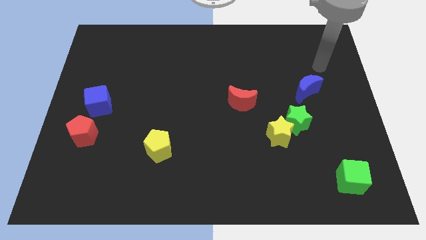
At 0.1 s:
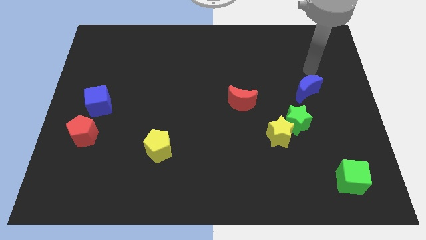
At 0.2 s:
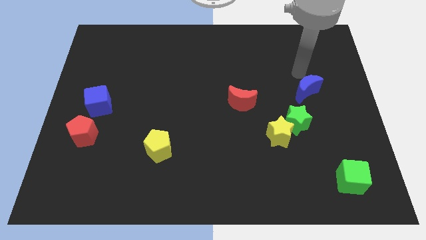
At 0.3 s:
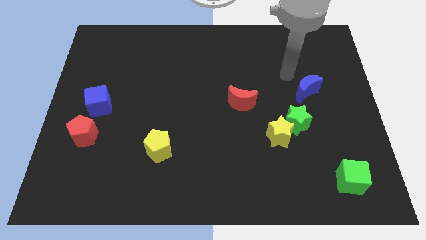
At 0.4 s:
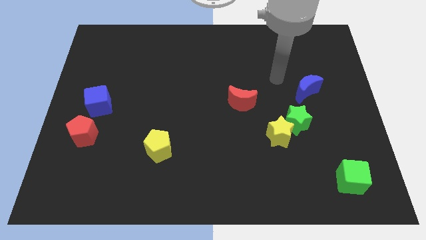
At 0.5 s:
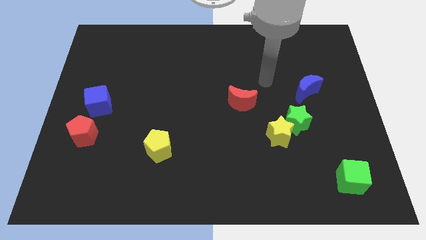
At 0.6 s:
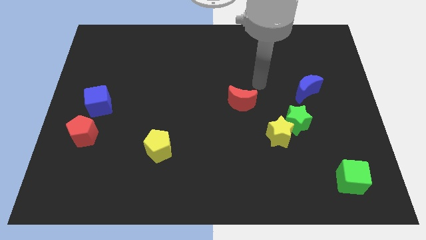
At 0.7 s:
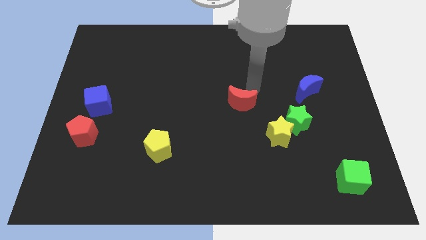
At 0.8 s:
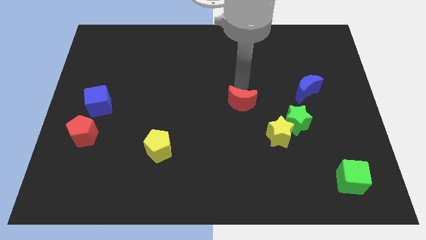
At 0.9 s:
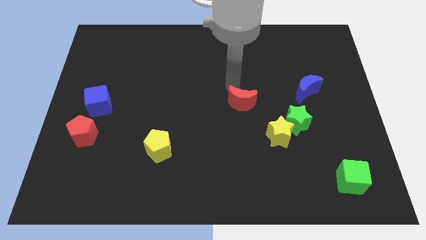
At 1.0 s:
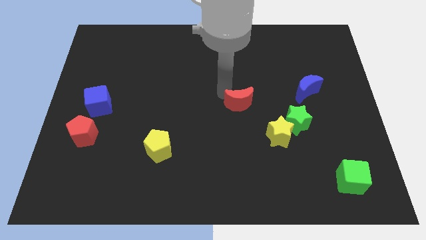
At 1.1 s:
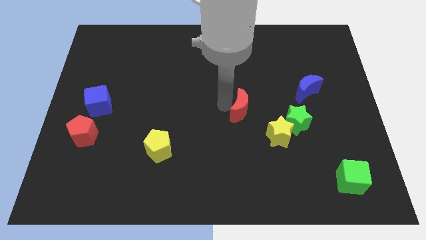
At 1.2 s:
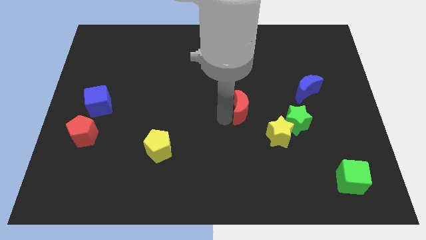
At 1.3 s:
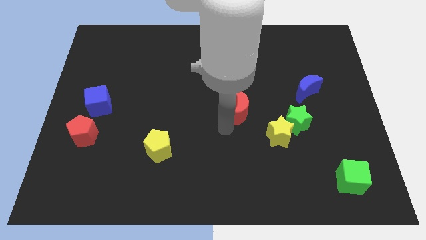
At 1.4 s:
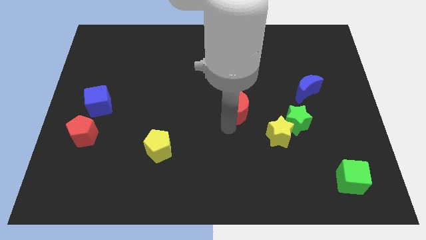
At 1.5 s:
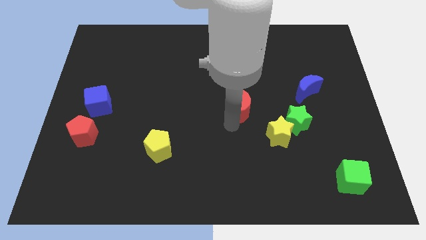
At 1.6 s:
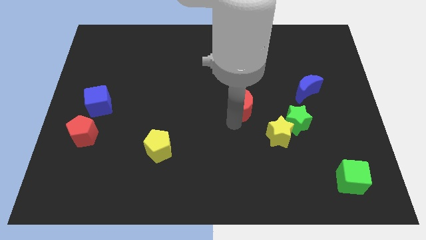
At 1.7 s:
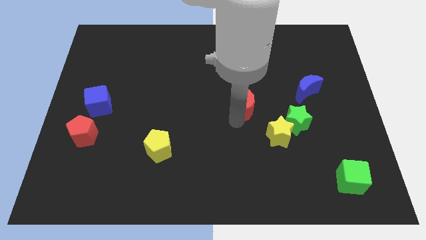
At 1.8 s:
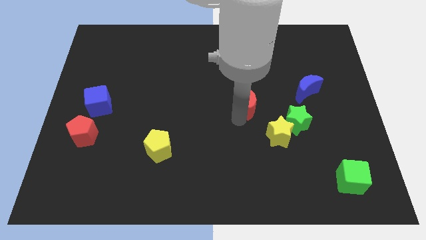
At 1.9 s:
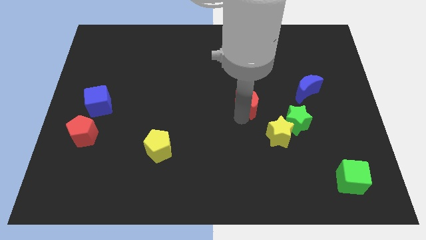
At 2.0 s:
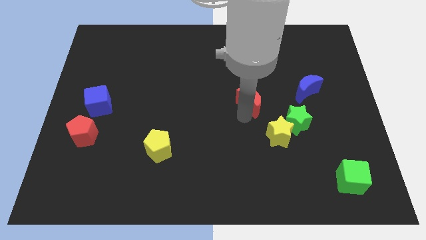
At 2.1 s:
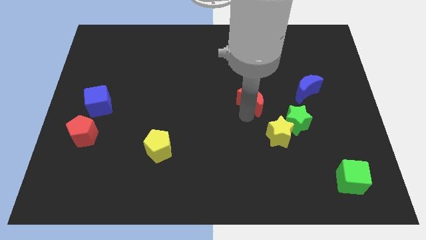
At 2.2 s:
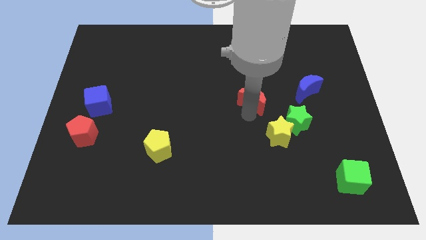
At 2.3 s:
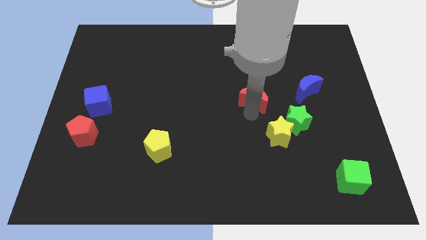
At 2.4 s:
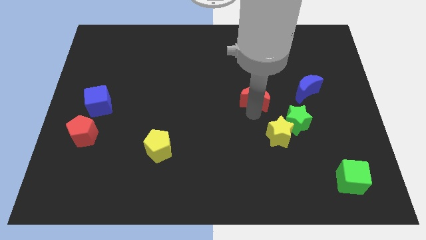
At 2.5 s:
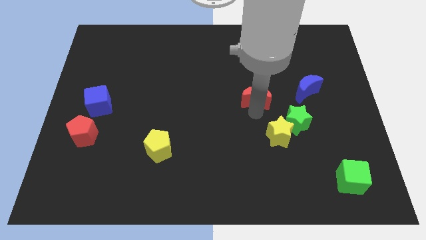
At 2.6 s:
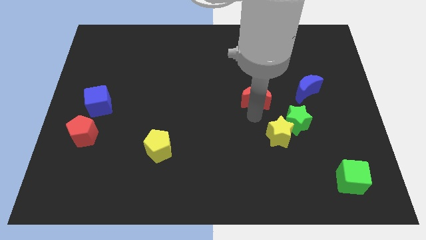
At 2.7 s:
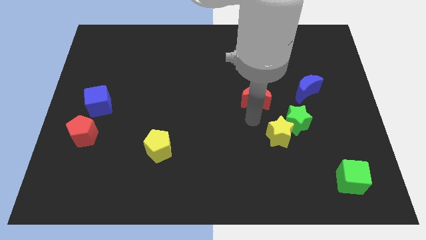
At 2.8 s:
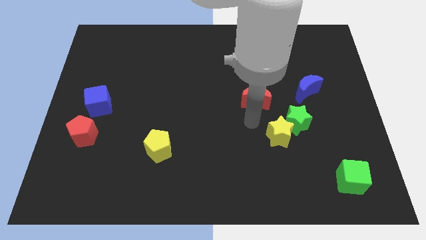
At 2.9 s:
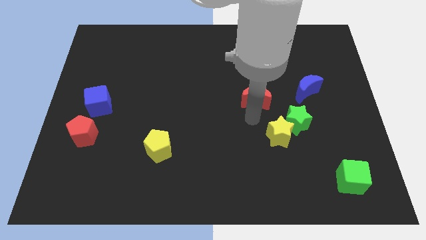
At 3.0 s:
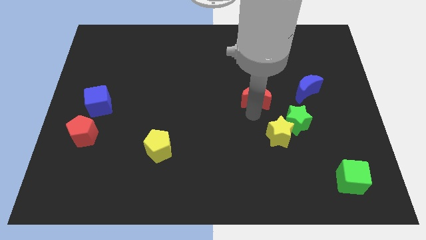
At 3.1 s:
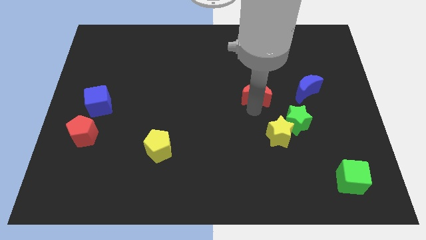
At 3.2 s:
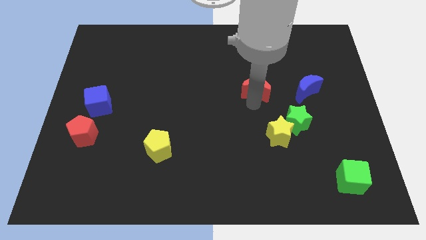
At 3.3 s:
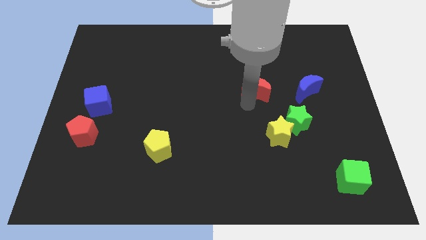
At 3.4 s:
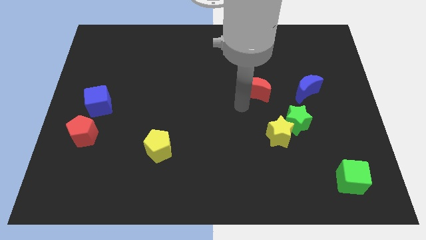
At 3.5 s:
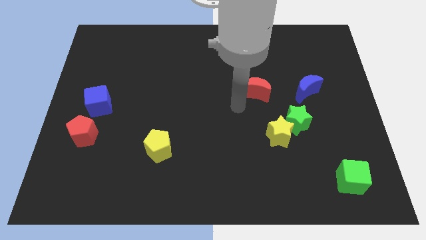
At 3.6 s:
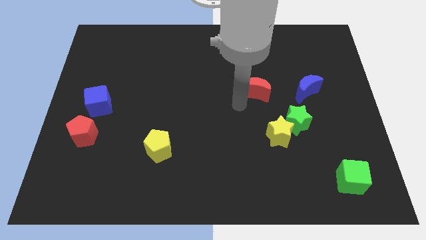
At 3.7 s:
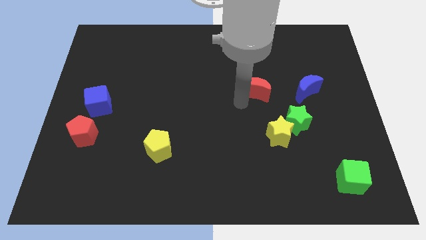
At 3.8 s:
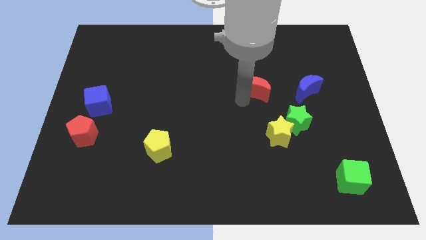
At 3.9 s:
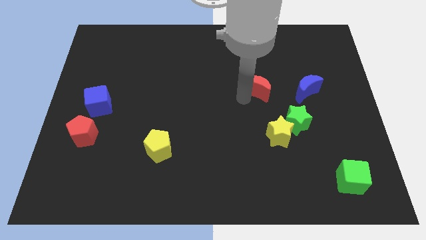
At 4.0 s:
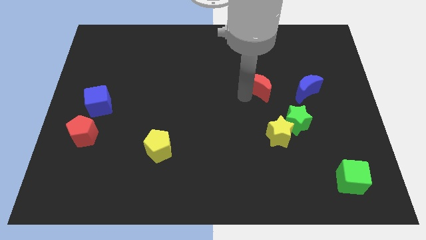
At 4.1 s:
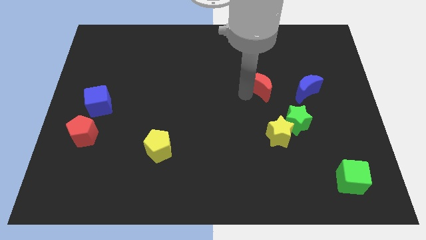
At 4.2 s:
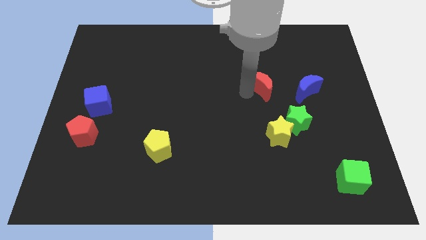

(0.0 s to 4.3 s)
move the red moon up and then right a little

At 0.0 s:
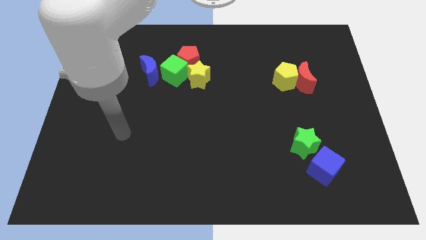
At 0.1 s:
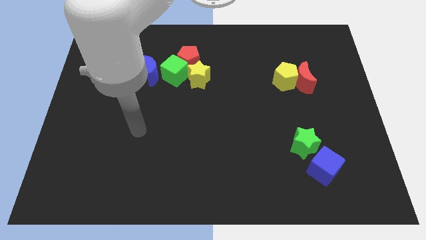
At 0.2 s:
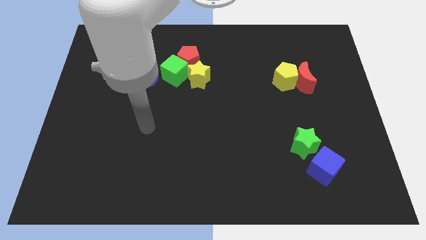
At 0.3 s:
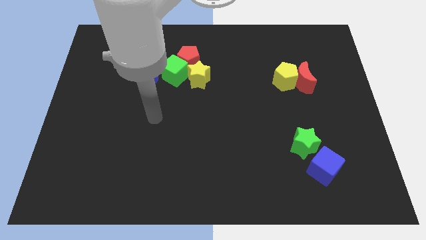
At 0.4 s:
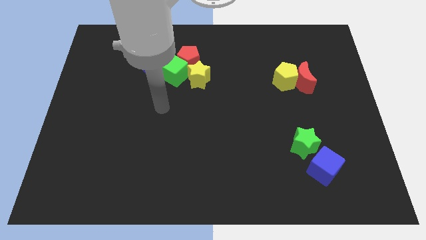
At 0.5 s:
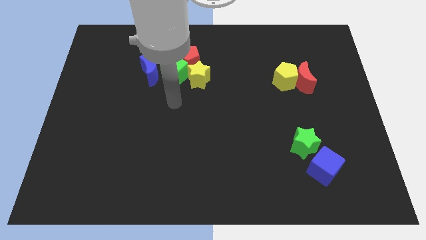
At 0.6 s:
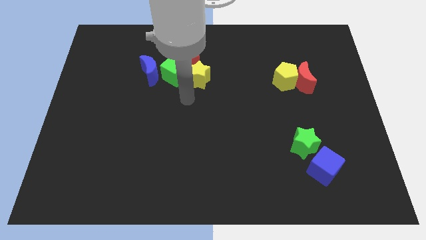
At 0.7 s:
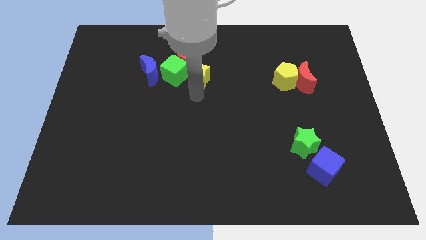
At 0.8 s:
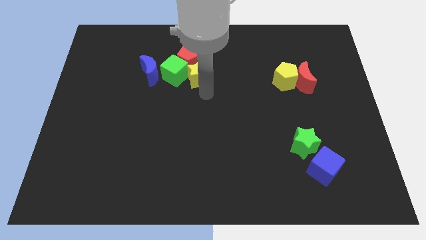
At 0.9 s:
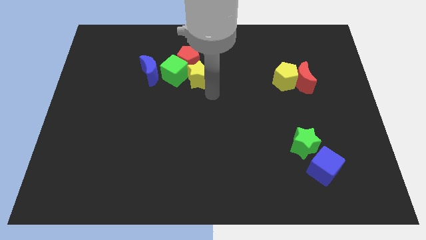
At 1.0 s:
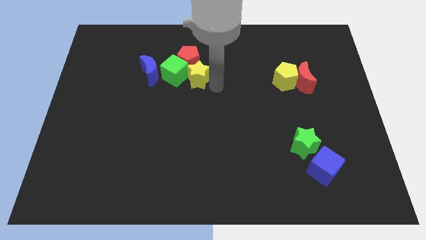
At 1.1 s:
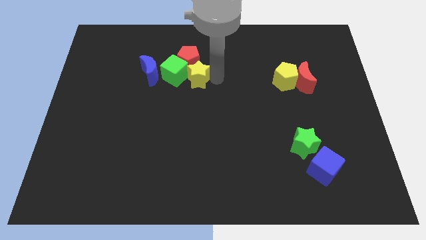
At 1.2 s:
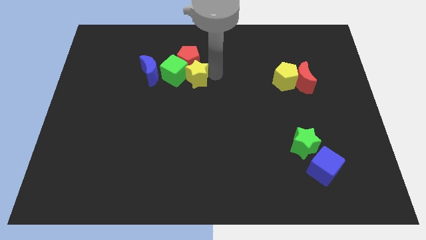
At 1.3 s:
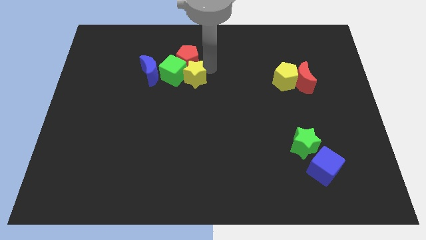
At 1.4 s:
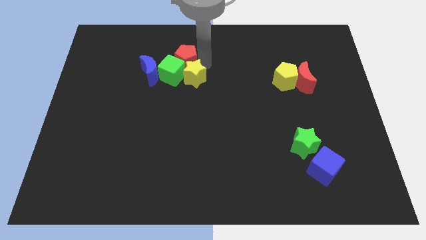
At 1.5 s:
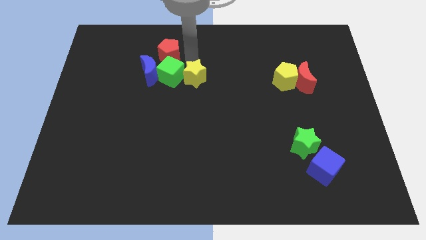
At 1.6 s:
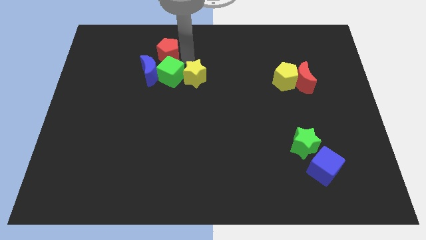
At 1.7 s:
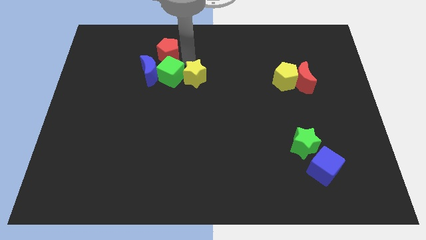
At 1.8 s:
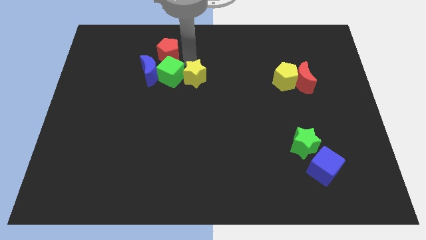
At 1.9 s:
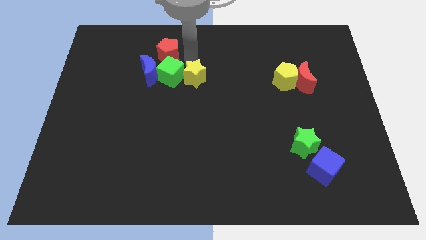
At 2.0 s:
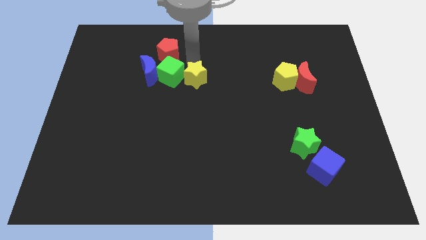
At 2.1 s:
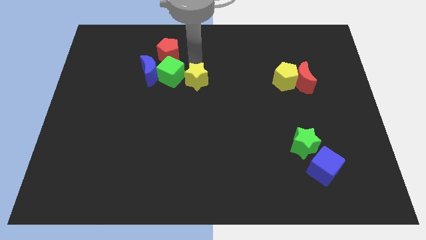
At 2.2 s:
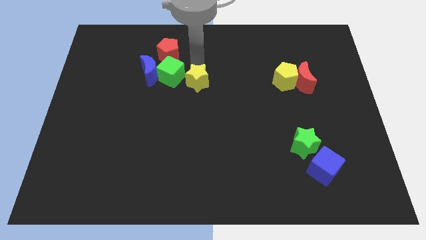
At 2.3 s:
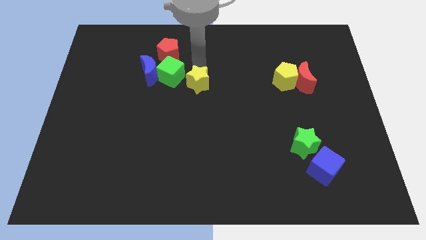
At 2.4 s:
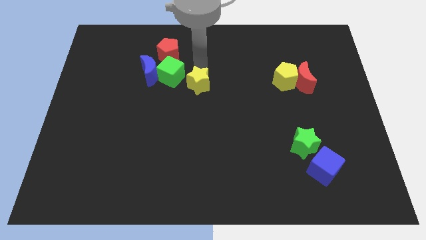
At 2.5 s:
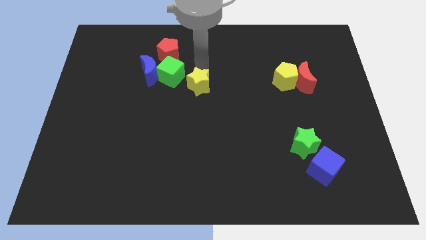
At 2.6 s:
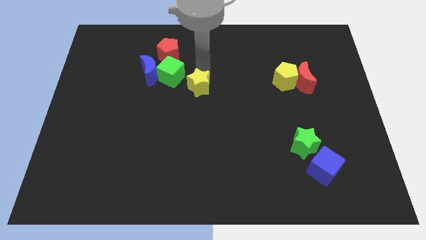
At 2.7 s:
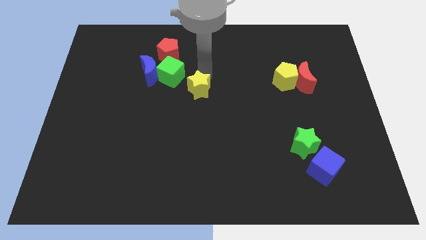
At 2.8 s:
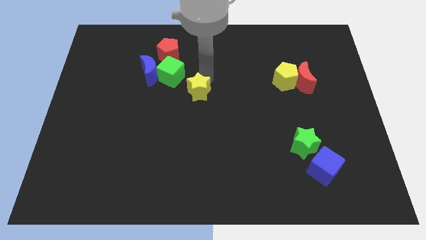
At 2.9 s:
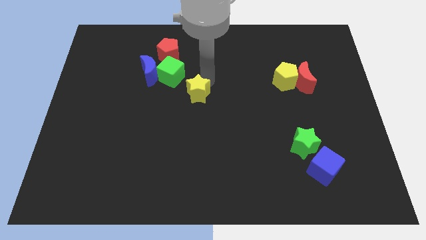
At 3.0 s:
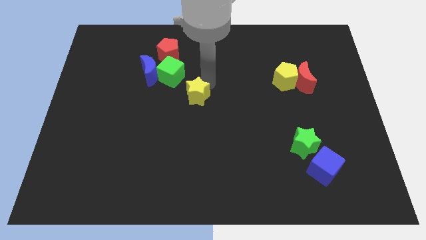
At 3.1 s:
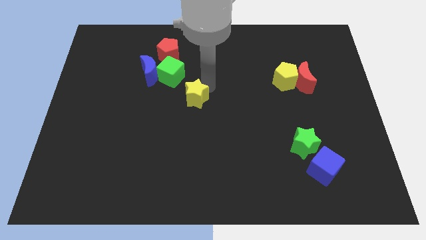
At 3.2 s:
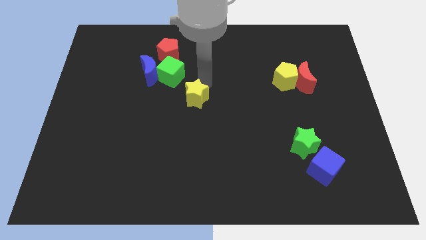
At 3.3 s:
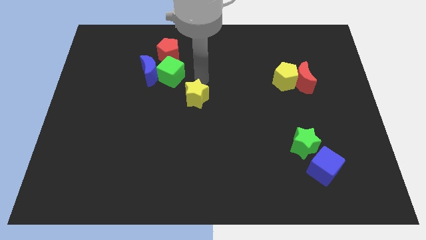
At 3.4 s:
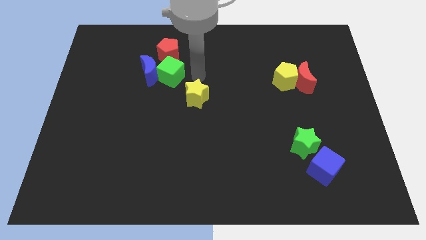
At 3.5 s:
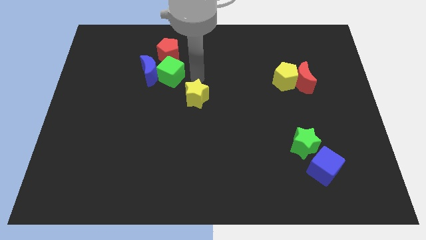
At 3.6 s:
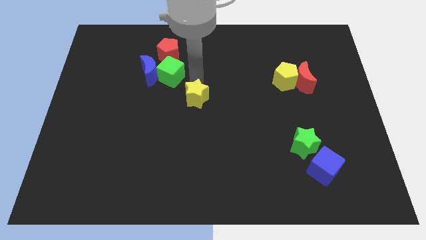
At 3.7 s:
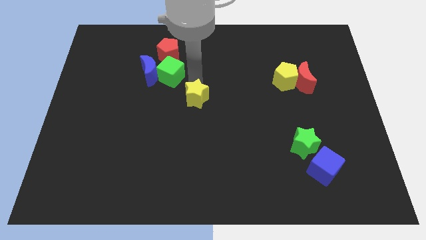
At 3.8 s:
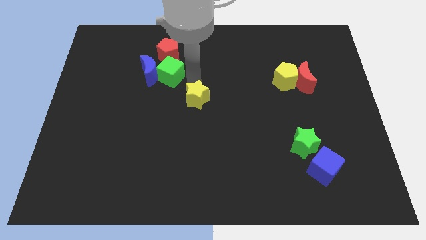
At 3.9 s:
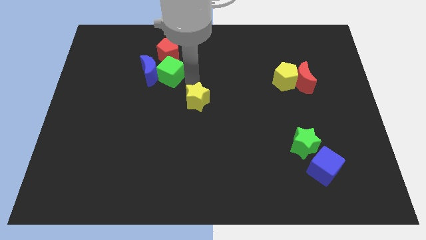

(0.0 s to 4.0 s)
slightly push the yellow star downwards

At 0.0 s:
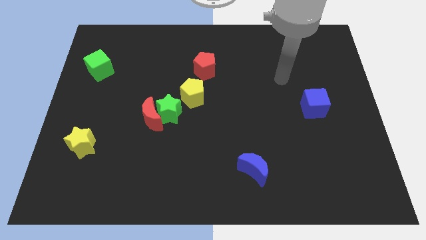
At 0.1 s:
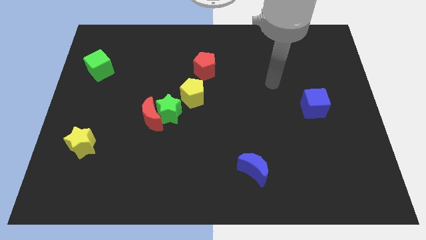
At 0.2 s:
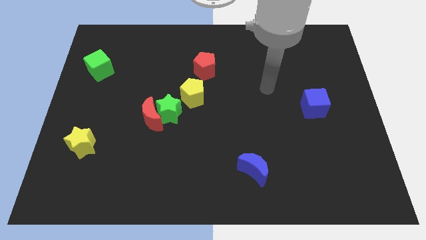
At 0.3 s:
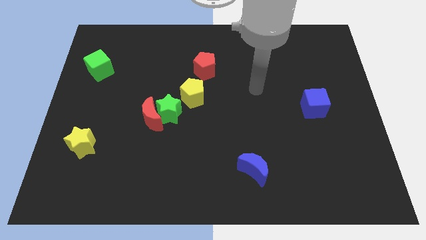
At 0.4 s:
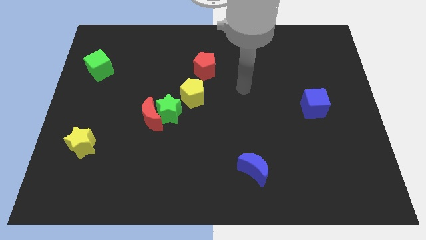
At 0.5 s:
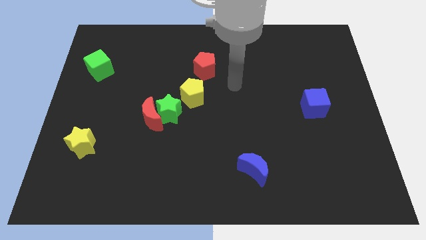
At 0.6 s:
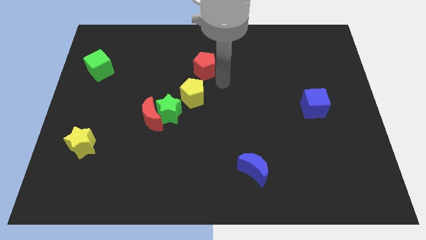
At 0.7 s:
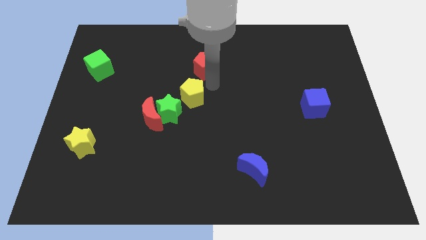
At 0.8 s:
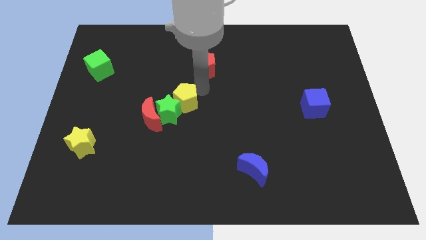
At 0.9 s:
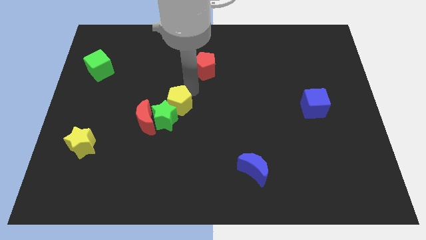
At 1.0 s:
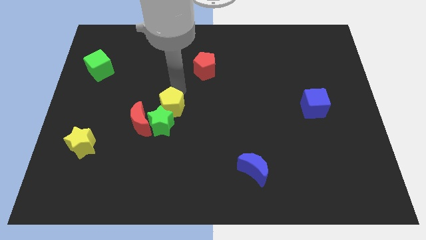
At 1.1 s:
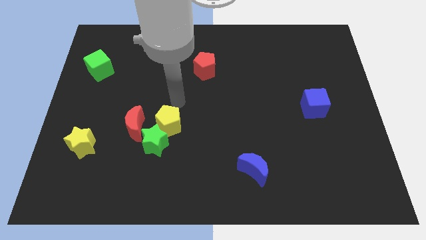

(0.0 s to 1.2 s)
slide the green star a little downwards and to the left
